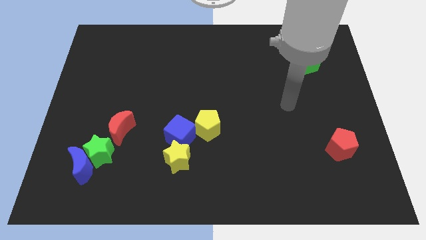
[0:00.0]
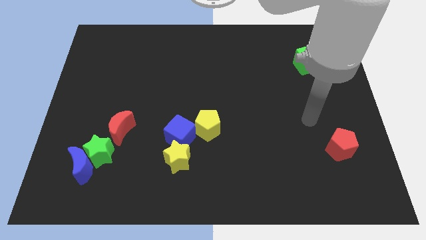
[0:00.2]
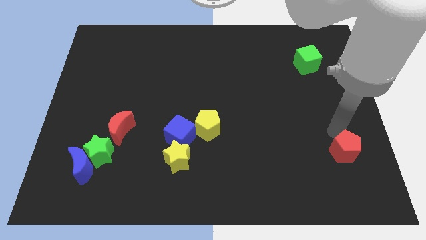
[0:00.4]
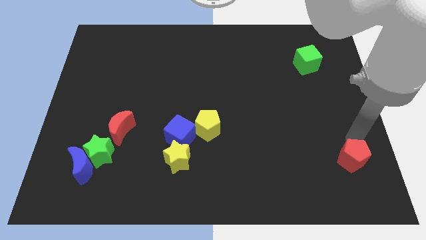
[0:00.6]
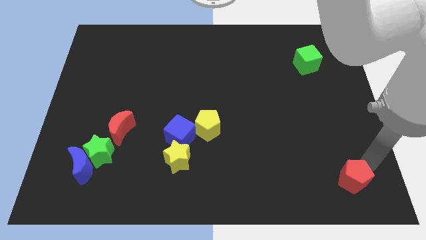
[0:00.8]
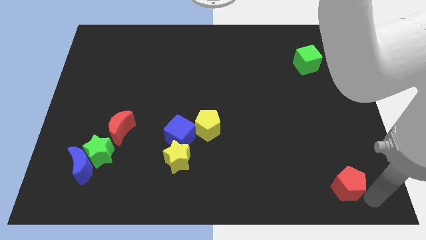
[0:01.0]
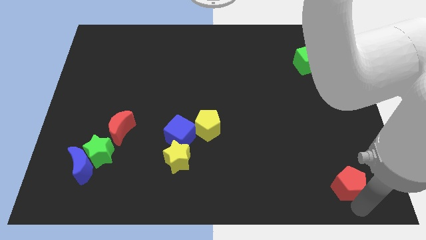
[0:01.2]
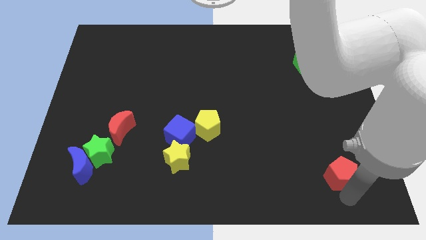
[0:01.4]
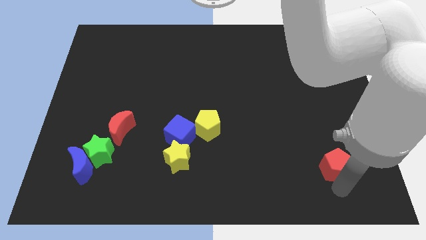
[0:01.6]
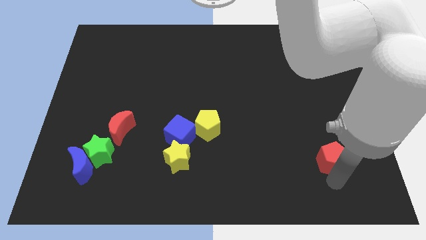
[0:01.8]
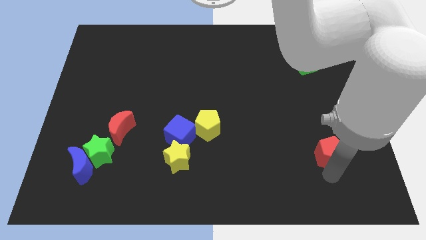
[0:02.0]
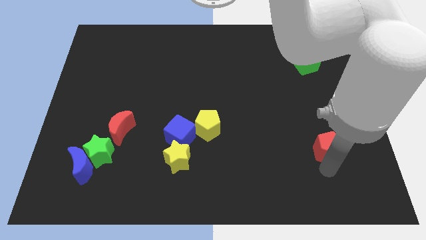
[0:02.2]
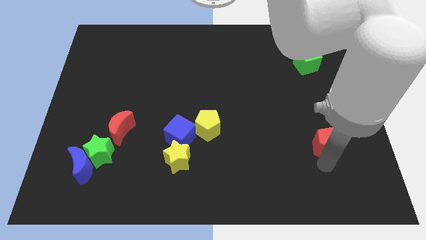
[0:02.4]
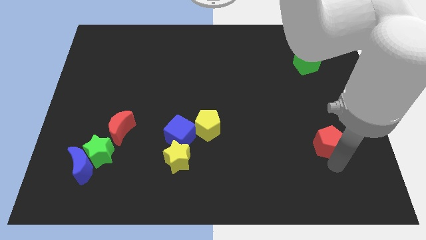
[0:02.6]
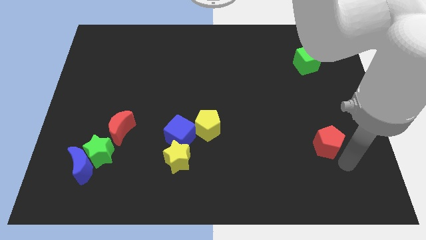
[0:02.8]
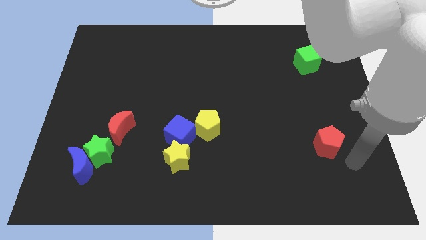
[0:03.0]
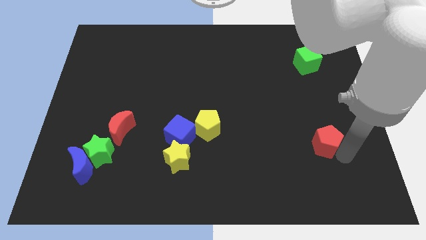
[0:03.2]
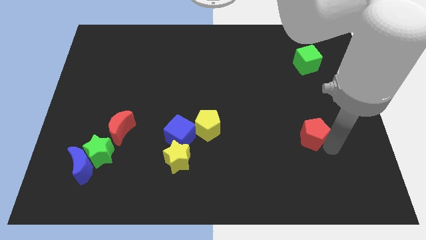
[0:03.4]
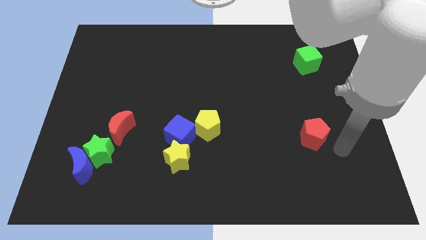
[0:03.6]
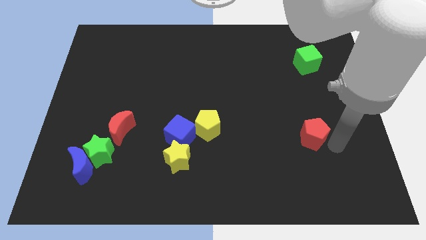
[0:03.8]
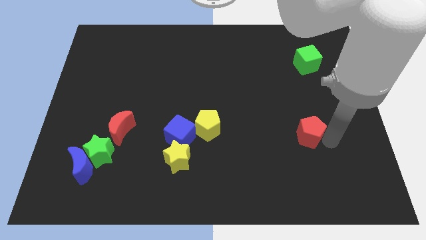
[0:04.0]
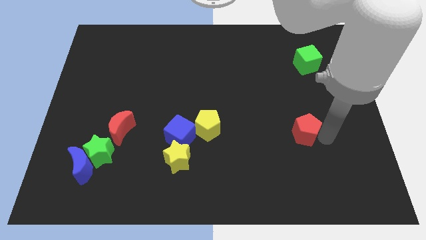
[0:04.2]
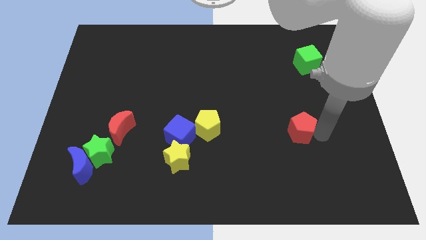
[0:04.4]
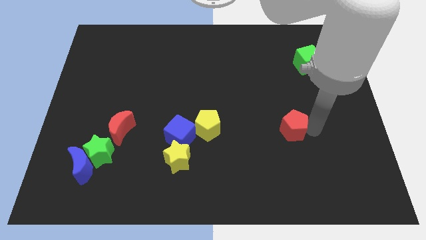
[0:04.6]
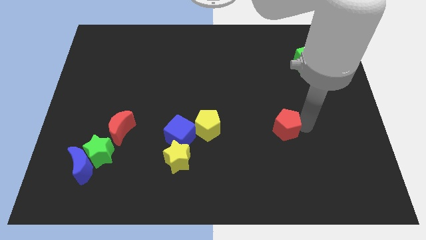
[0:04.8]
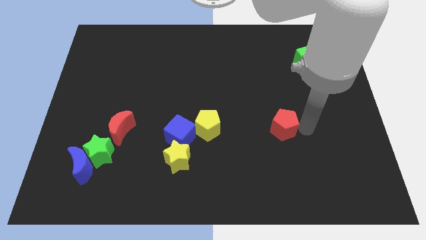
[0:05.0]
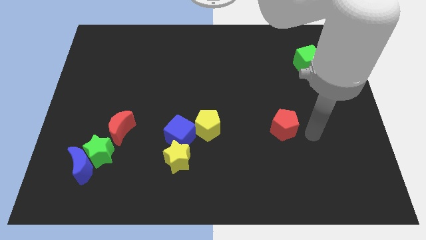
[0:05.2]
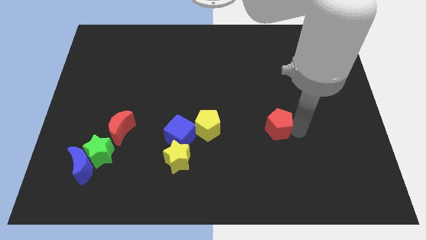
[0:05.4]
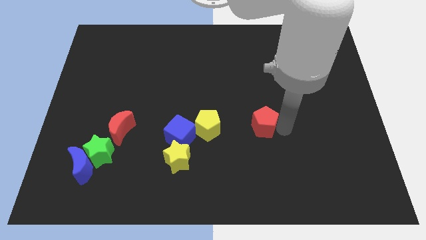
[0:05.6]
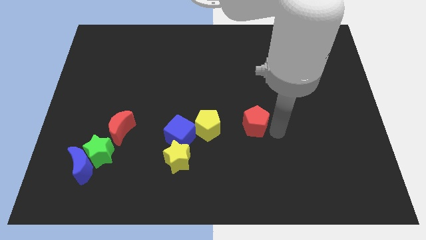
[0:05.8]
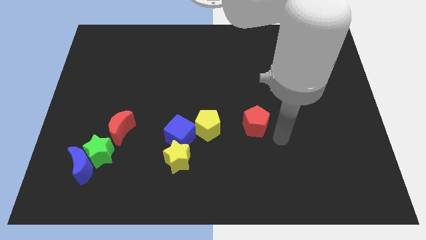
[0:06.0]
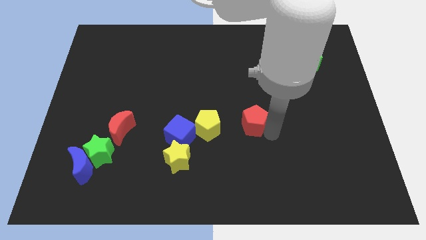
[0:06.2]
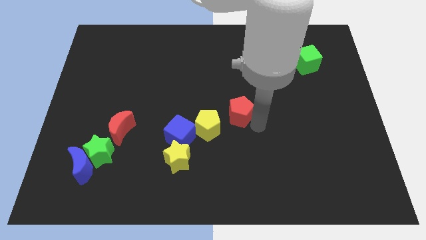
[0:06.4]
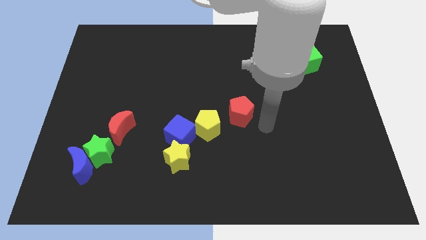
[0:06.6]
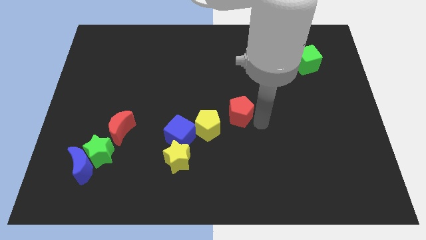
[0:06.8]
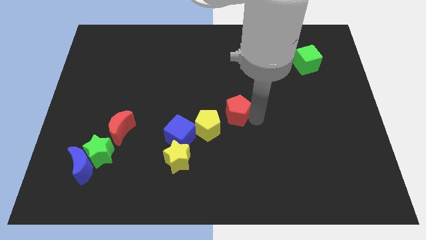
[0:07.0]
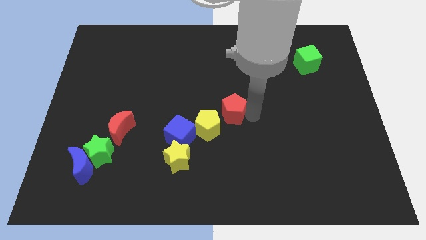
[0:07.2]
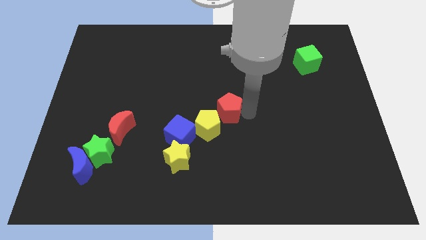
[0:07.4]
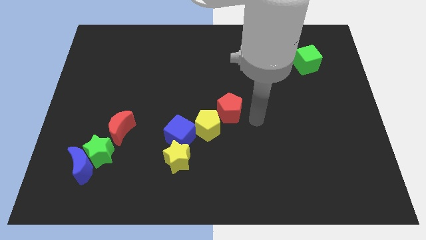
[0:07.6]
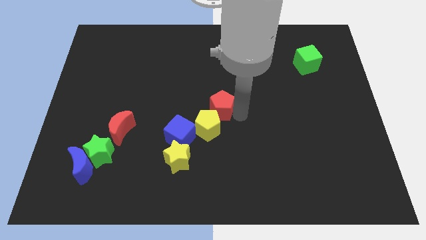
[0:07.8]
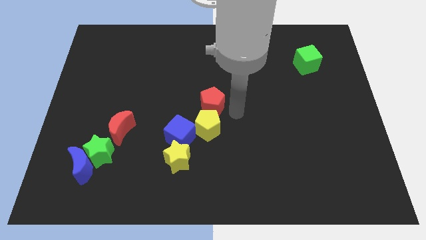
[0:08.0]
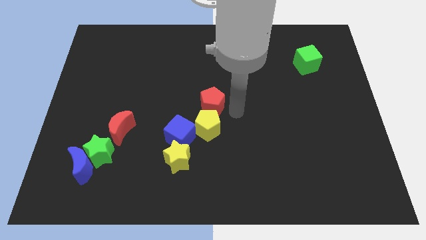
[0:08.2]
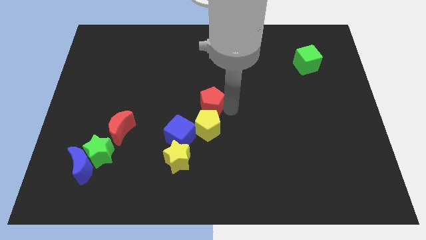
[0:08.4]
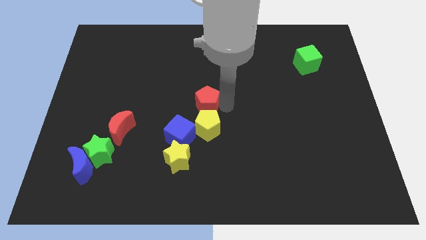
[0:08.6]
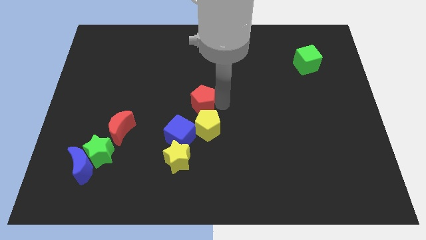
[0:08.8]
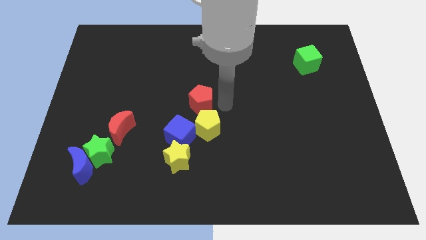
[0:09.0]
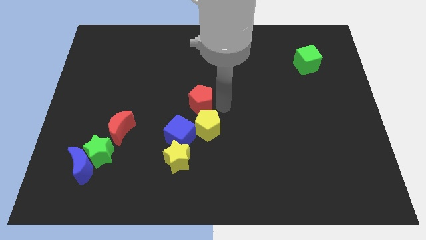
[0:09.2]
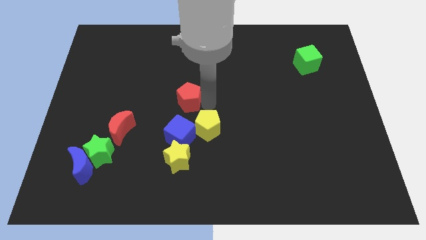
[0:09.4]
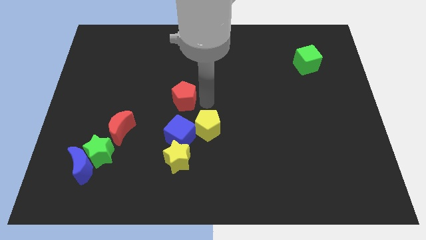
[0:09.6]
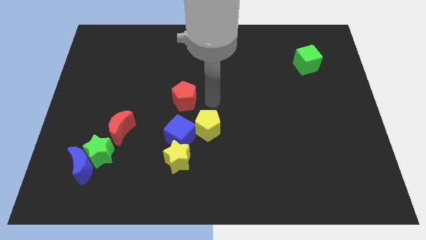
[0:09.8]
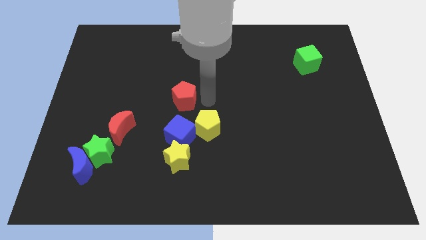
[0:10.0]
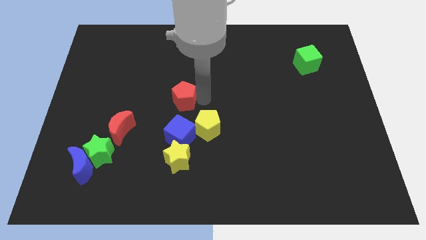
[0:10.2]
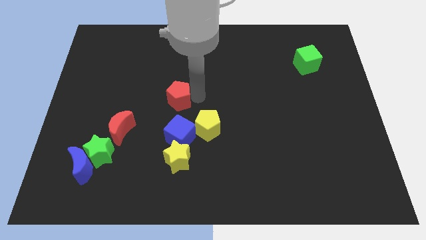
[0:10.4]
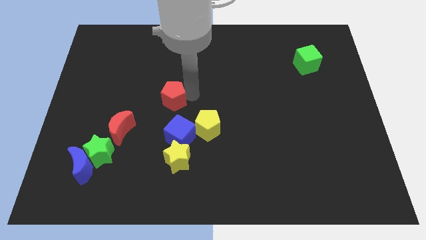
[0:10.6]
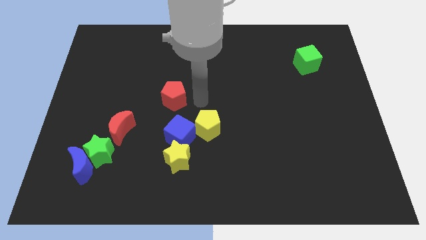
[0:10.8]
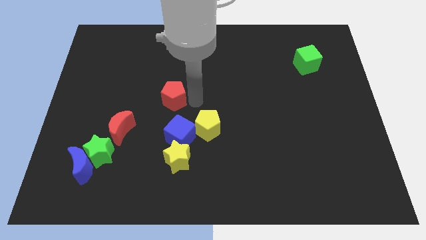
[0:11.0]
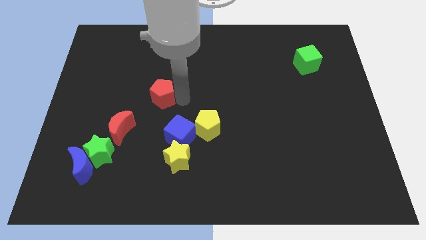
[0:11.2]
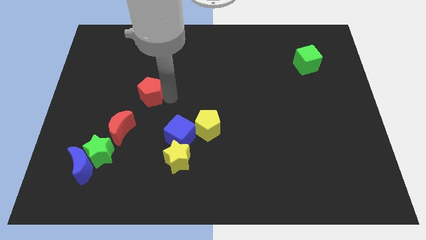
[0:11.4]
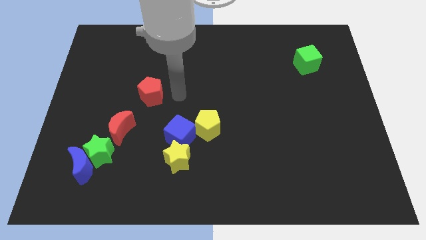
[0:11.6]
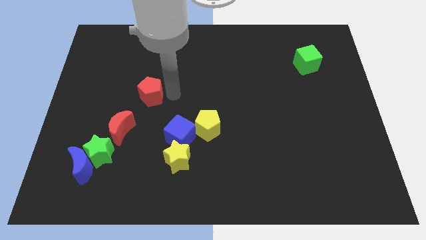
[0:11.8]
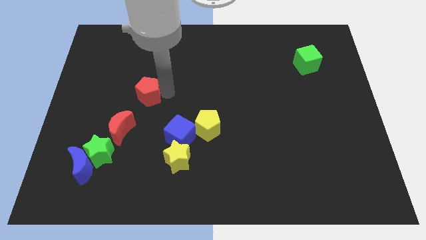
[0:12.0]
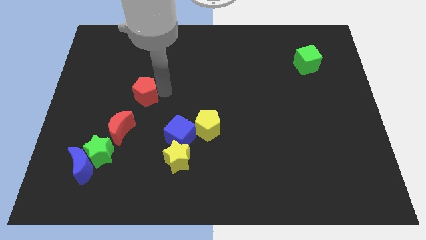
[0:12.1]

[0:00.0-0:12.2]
move the red pentagon to the top side of the red moon

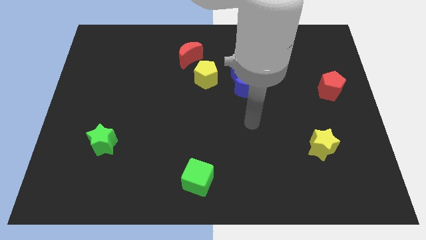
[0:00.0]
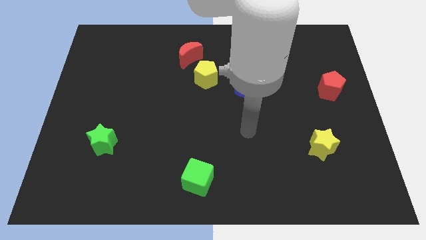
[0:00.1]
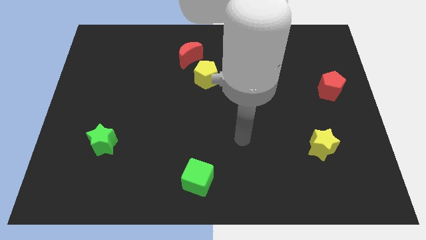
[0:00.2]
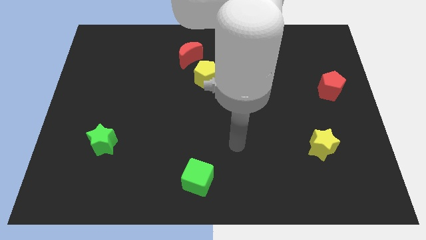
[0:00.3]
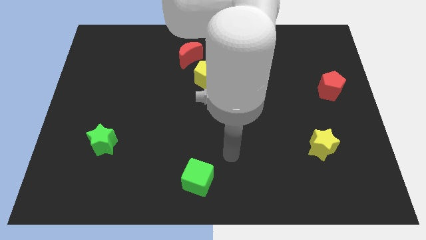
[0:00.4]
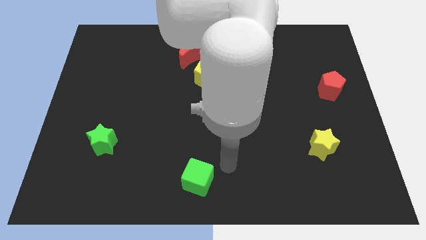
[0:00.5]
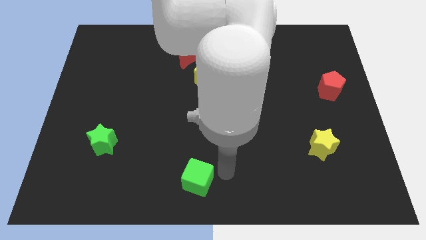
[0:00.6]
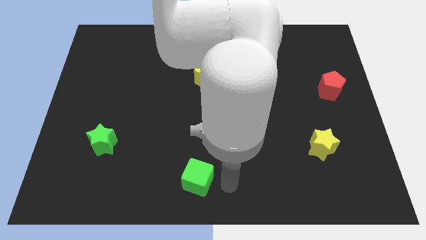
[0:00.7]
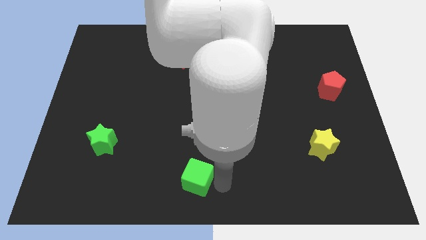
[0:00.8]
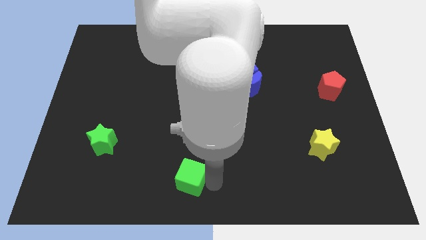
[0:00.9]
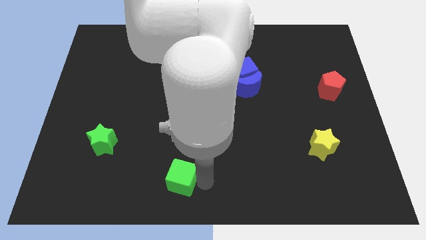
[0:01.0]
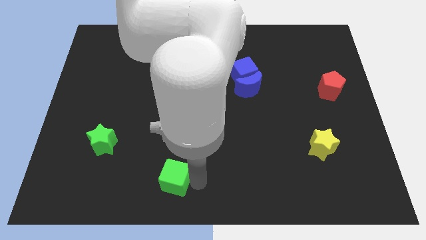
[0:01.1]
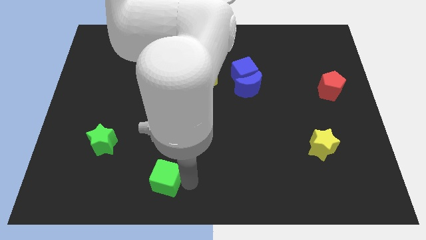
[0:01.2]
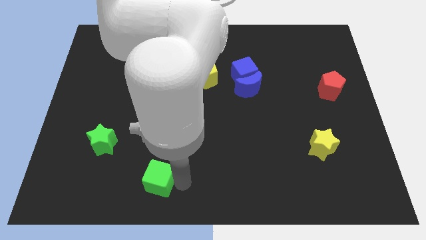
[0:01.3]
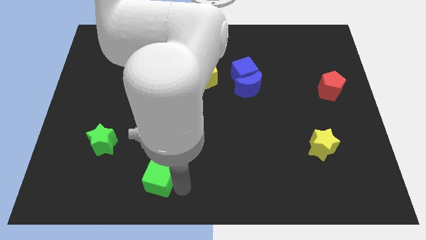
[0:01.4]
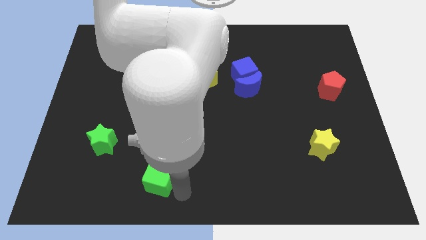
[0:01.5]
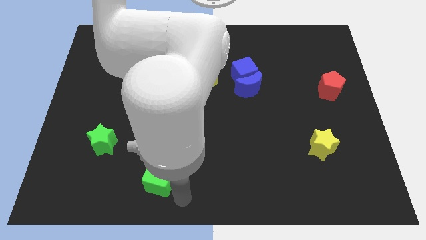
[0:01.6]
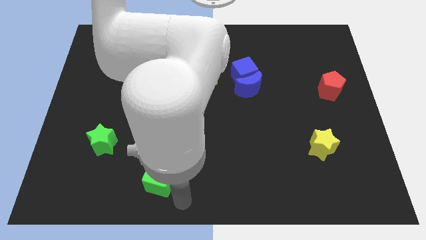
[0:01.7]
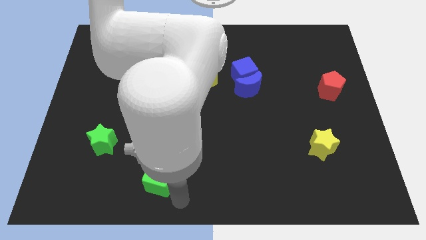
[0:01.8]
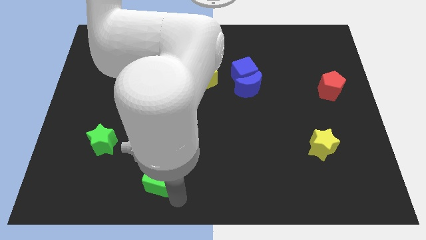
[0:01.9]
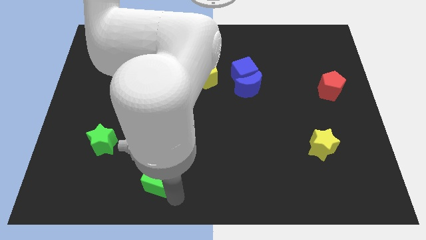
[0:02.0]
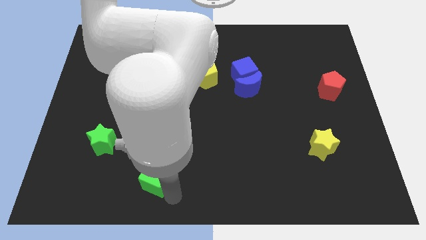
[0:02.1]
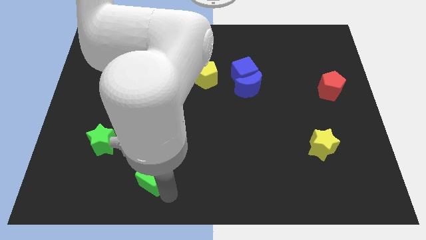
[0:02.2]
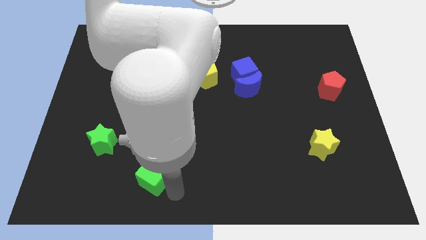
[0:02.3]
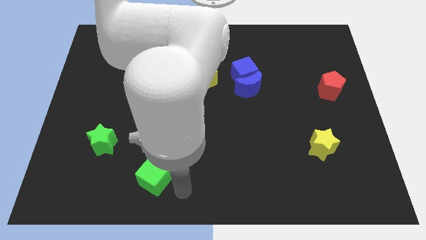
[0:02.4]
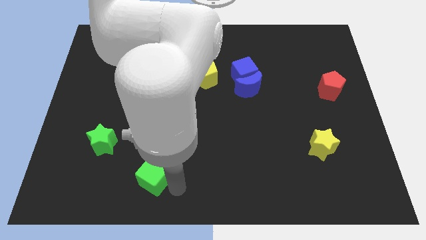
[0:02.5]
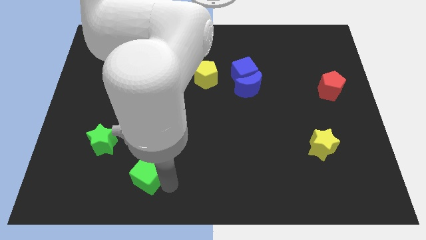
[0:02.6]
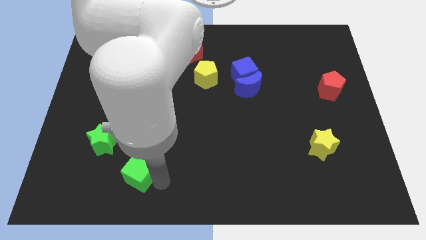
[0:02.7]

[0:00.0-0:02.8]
slide the green cube diagonally down and to the right of the green star
